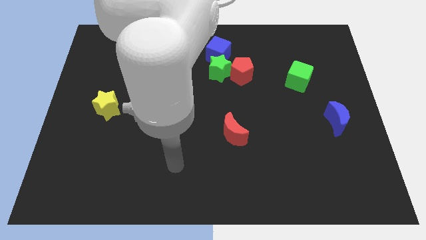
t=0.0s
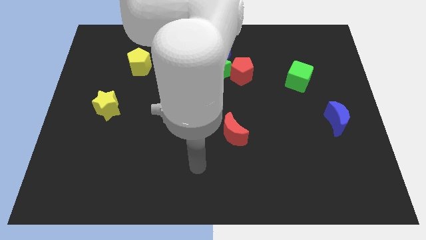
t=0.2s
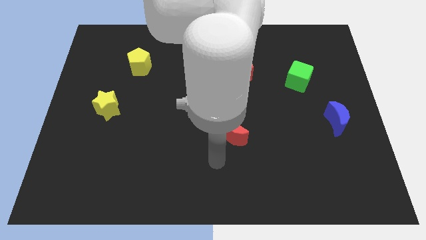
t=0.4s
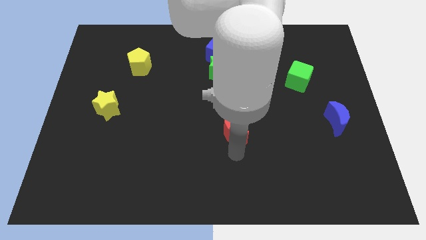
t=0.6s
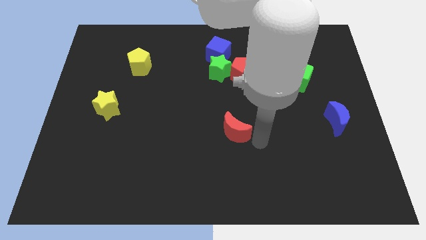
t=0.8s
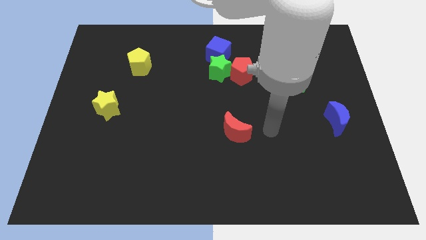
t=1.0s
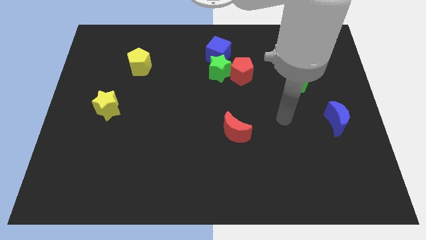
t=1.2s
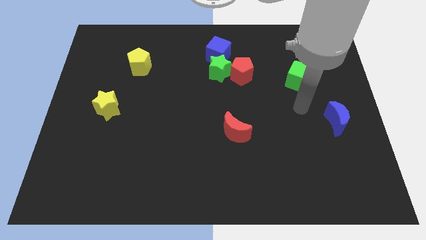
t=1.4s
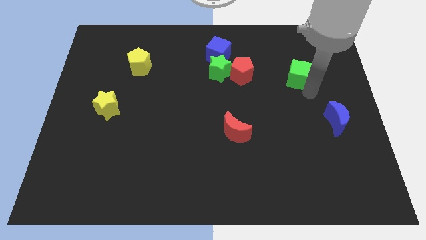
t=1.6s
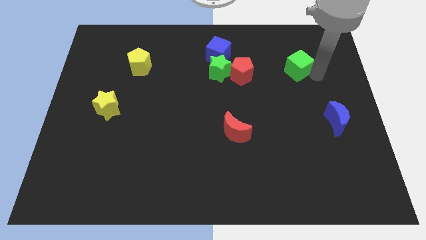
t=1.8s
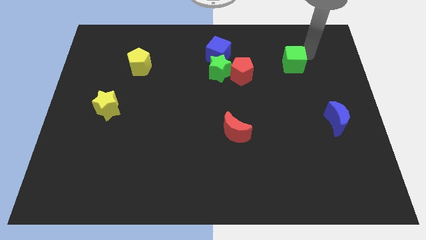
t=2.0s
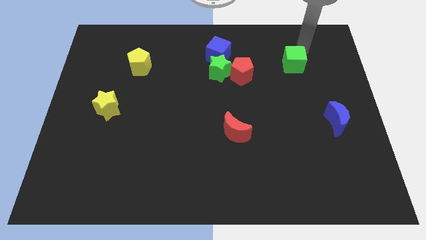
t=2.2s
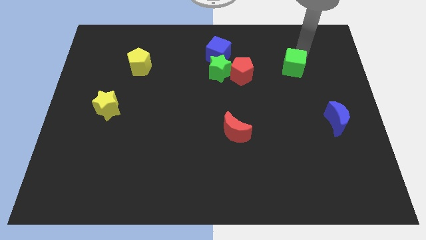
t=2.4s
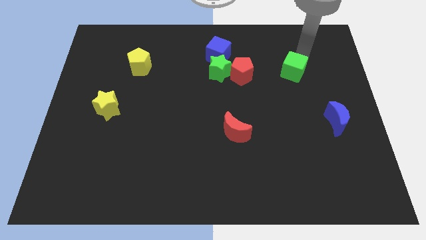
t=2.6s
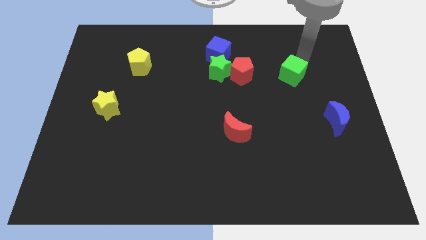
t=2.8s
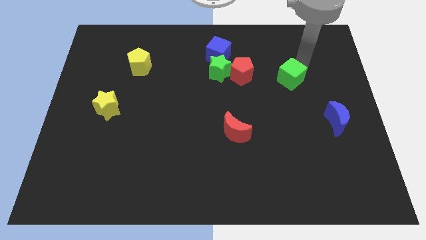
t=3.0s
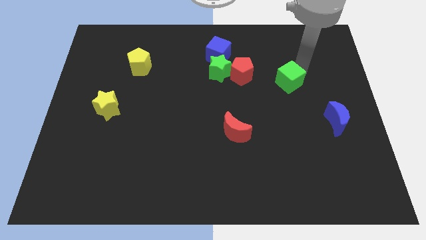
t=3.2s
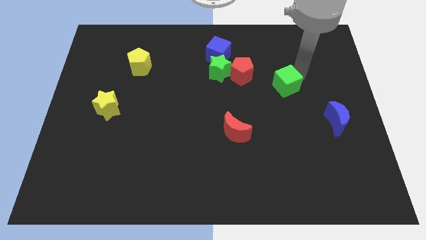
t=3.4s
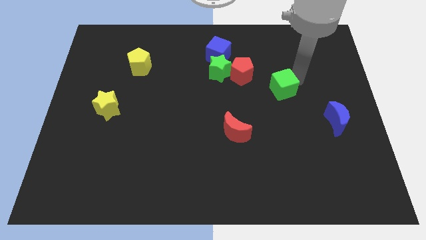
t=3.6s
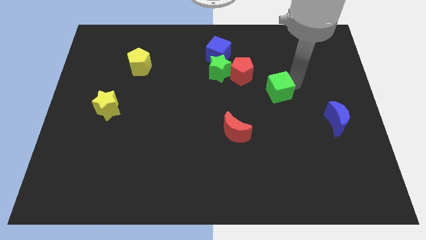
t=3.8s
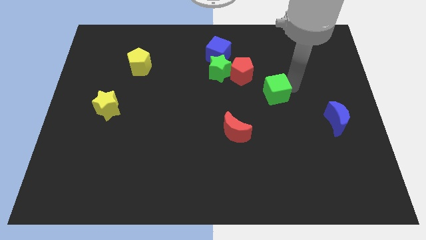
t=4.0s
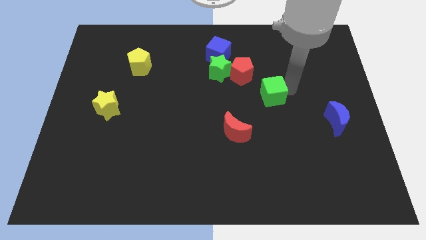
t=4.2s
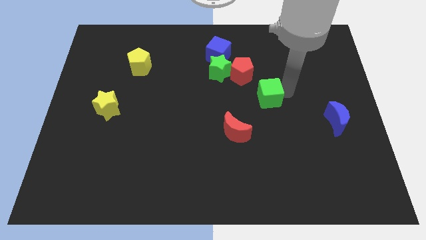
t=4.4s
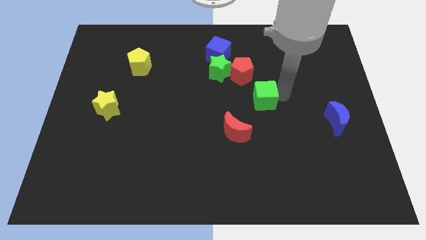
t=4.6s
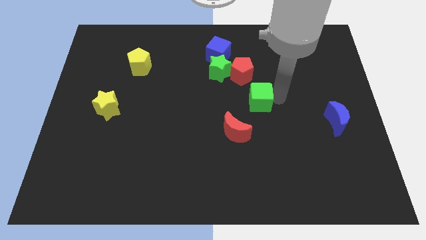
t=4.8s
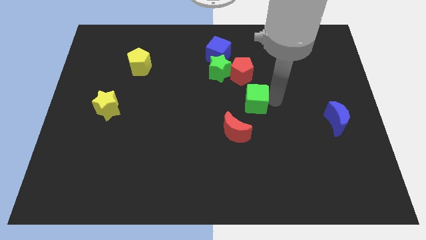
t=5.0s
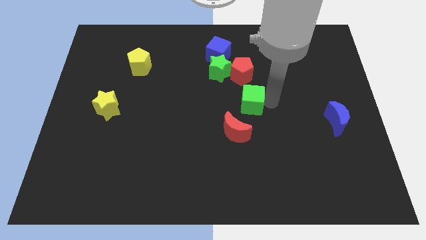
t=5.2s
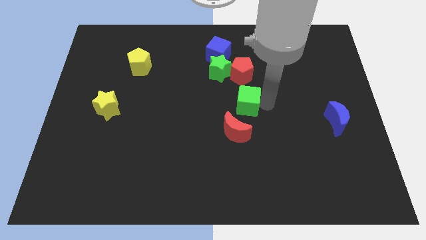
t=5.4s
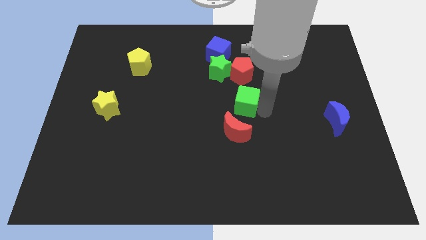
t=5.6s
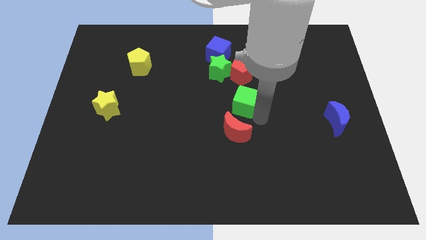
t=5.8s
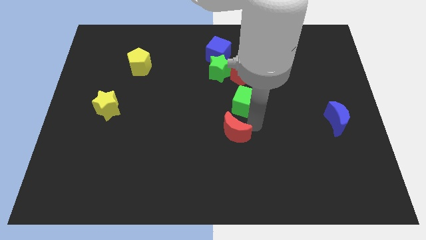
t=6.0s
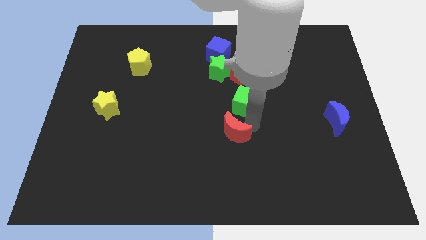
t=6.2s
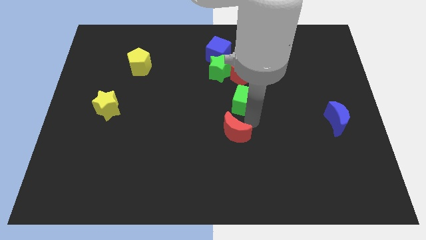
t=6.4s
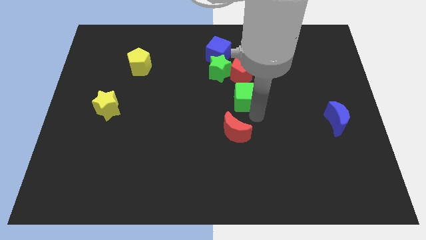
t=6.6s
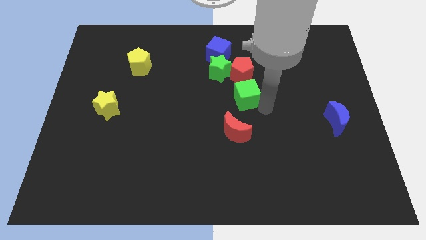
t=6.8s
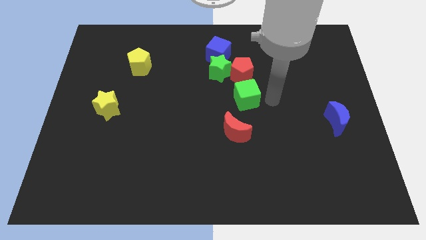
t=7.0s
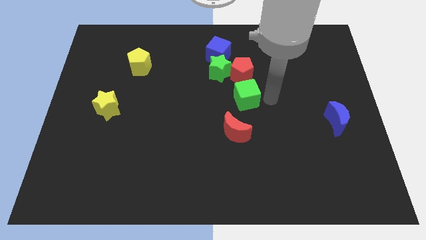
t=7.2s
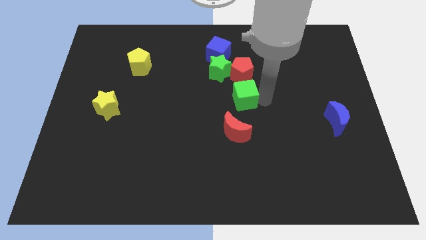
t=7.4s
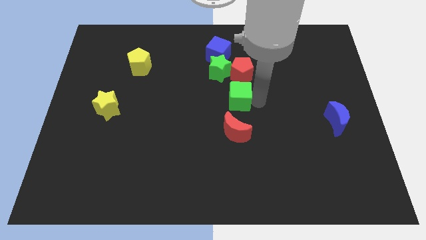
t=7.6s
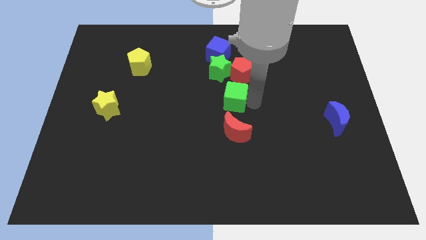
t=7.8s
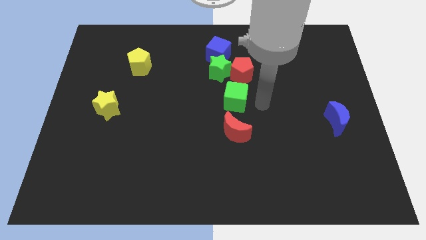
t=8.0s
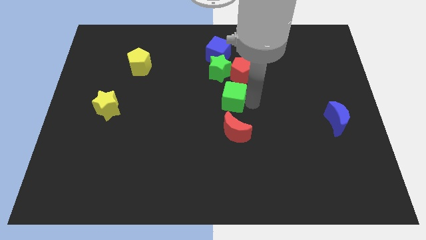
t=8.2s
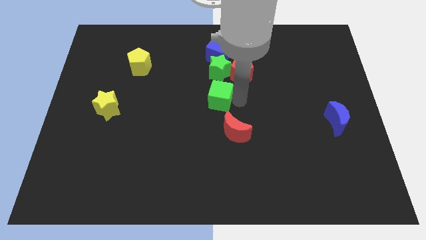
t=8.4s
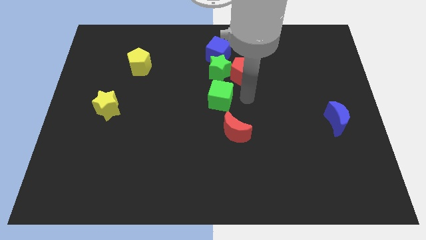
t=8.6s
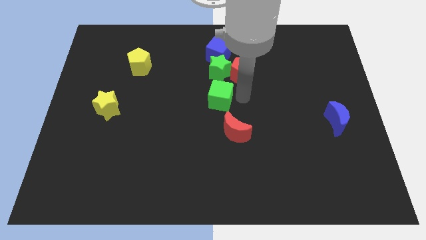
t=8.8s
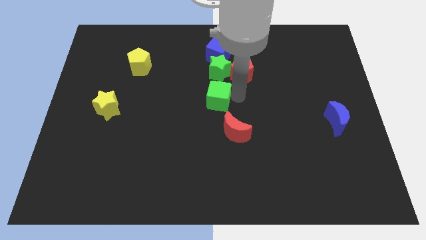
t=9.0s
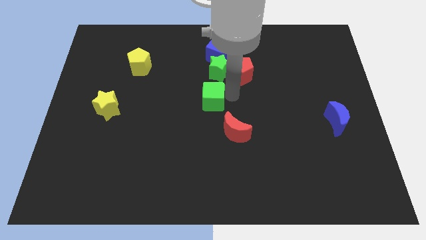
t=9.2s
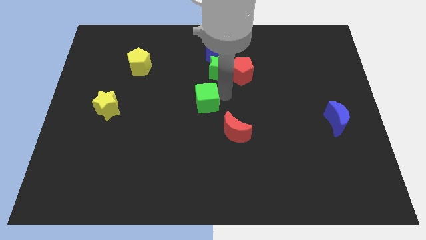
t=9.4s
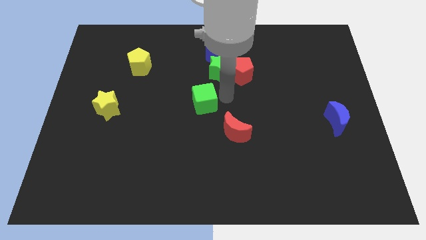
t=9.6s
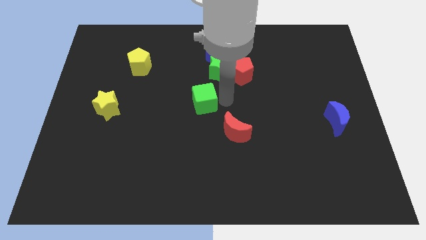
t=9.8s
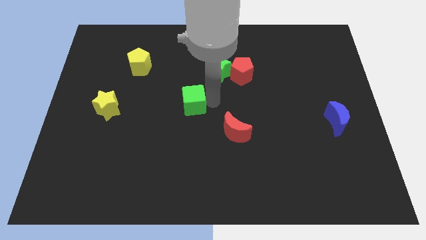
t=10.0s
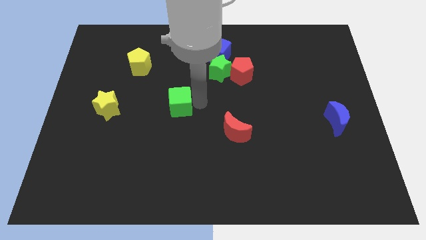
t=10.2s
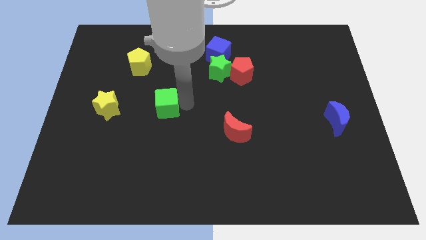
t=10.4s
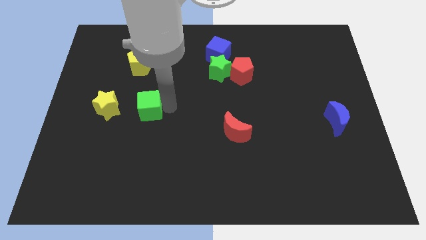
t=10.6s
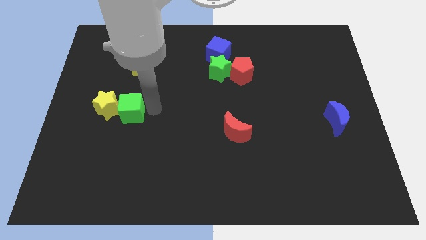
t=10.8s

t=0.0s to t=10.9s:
move the green cube towards the yellow star

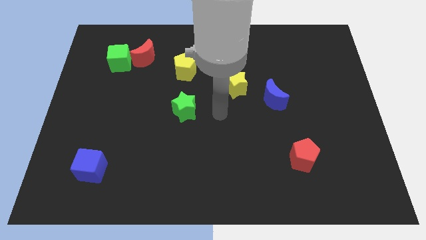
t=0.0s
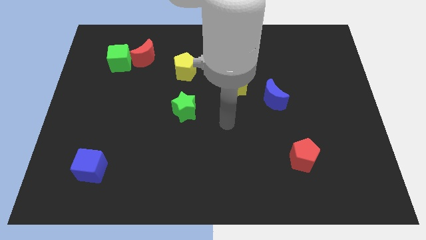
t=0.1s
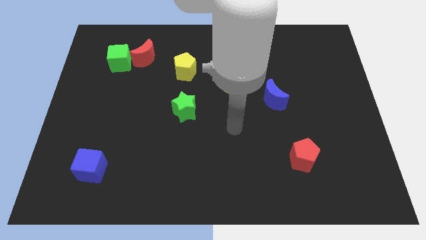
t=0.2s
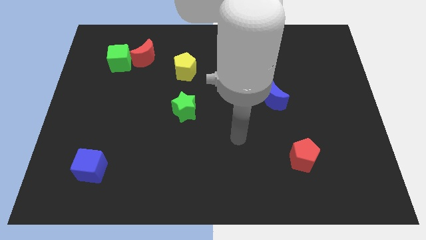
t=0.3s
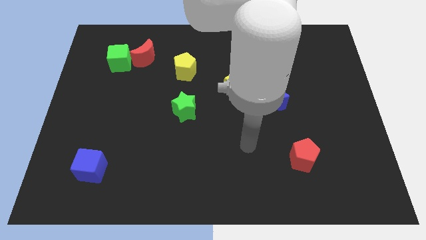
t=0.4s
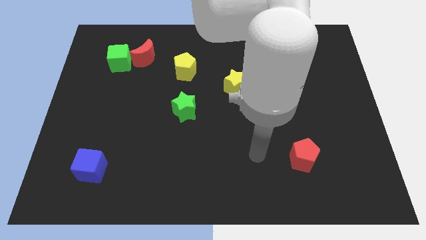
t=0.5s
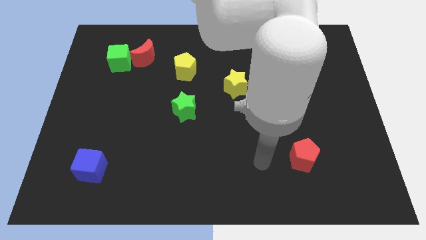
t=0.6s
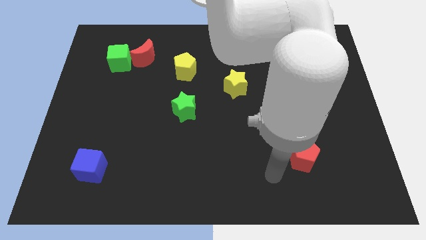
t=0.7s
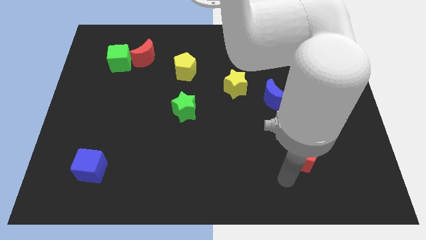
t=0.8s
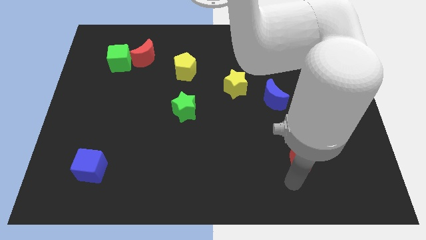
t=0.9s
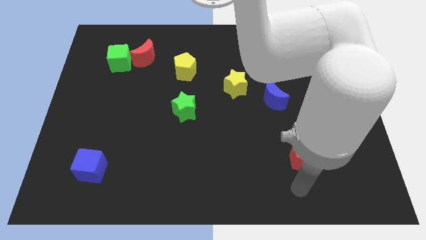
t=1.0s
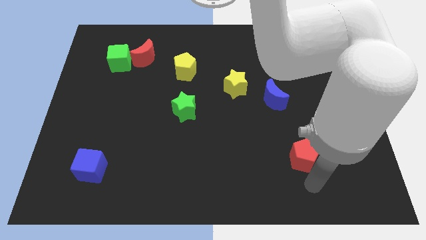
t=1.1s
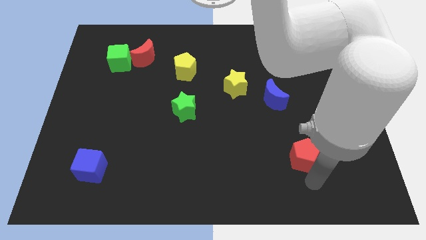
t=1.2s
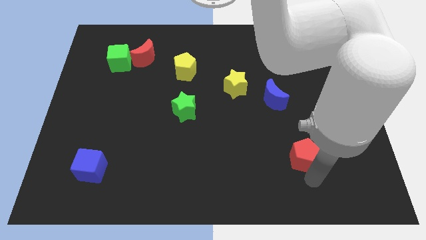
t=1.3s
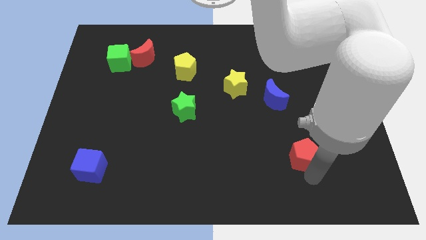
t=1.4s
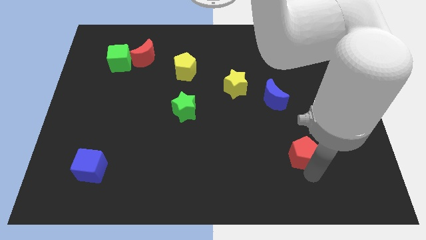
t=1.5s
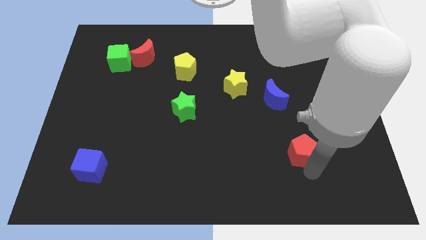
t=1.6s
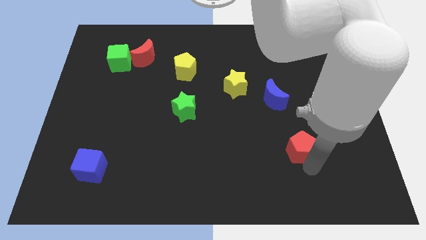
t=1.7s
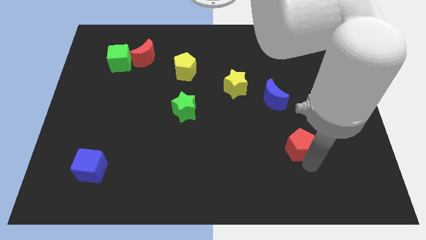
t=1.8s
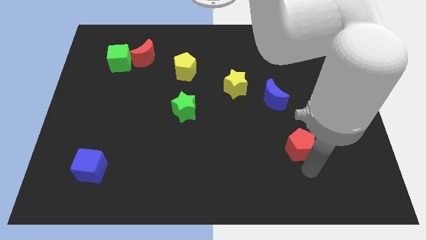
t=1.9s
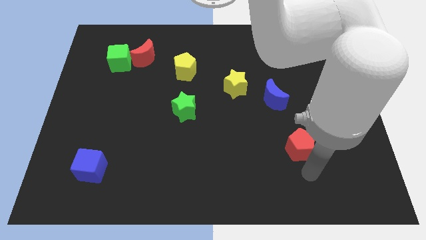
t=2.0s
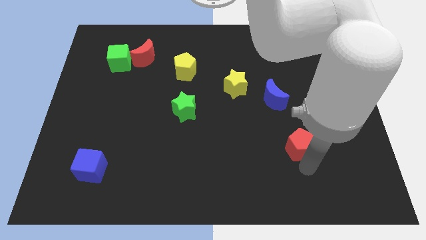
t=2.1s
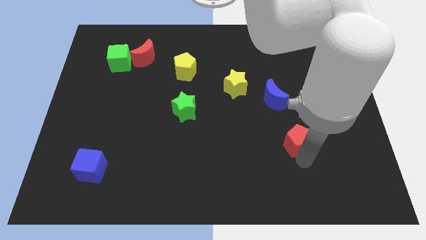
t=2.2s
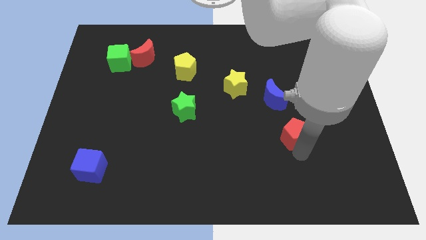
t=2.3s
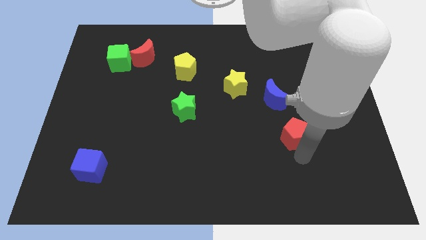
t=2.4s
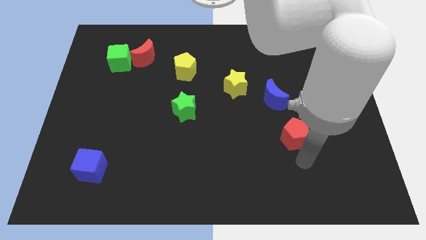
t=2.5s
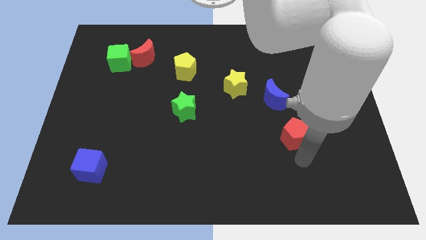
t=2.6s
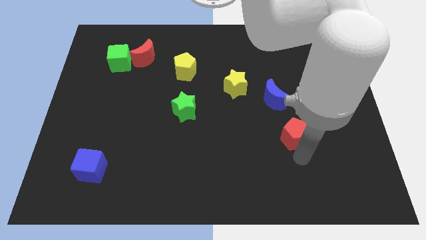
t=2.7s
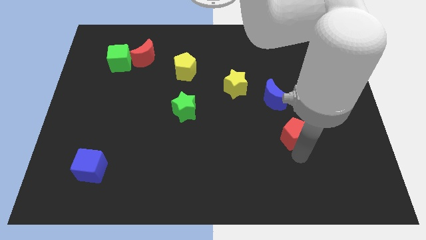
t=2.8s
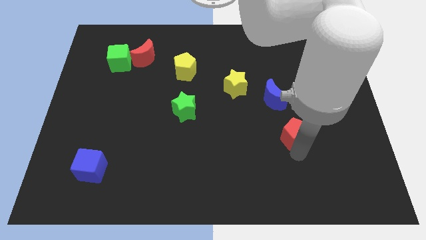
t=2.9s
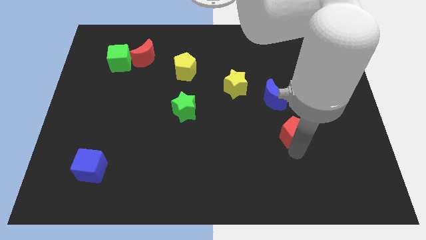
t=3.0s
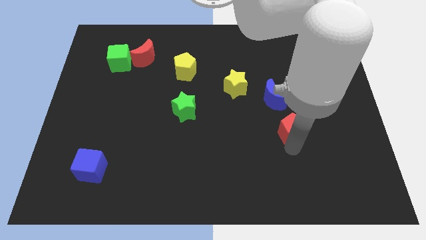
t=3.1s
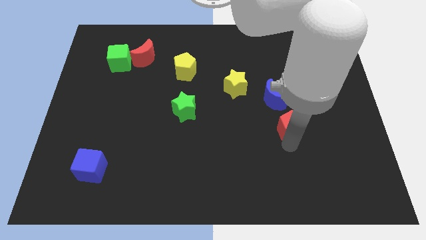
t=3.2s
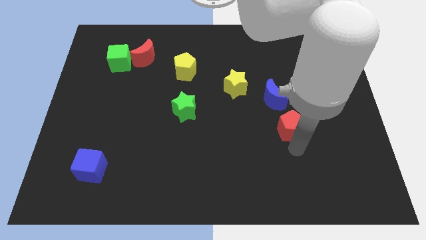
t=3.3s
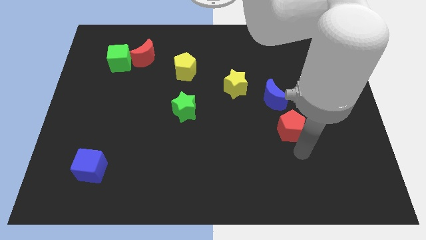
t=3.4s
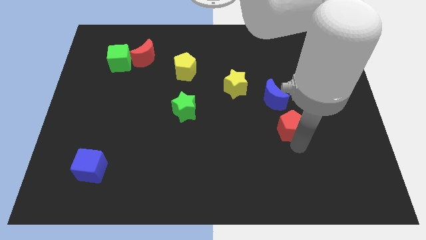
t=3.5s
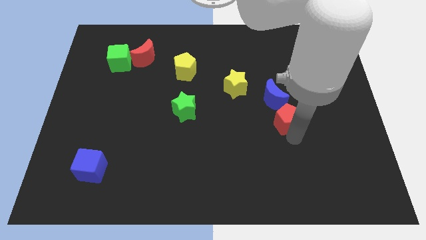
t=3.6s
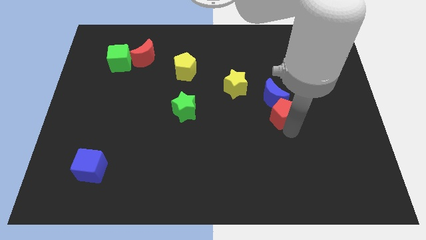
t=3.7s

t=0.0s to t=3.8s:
slide the red pentagon towards the blue moon
